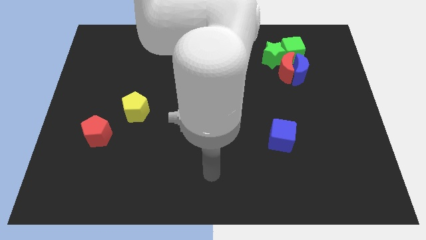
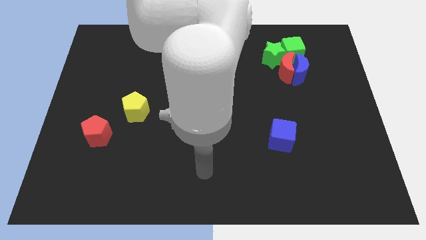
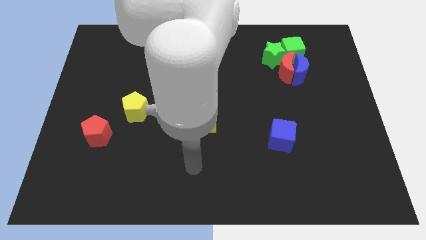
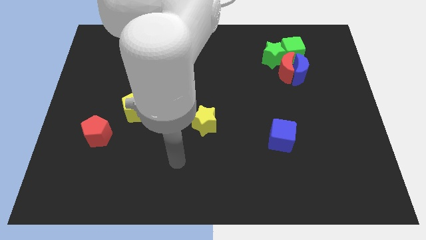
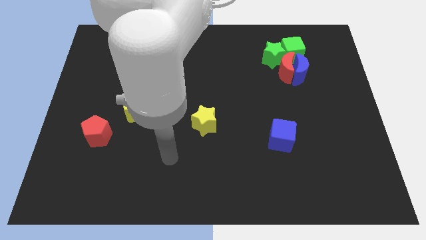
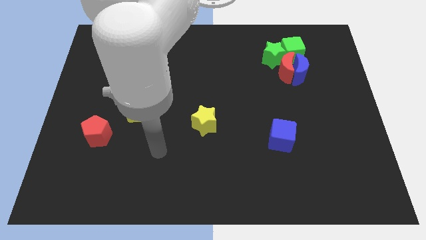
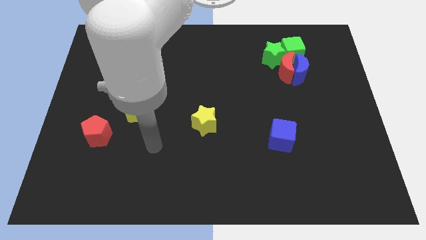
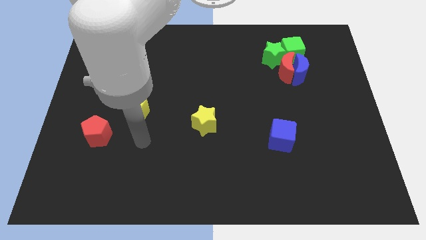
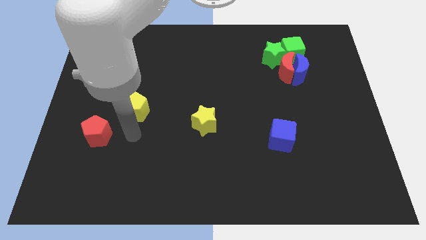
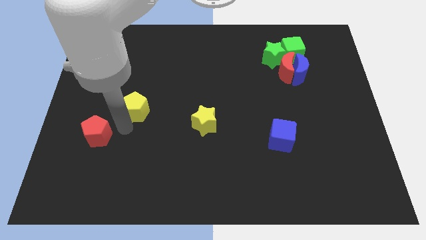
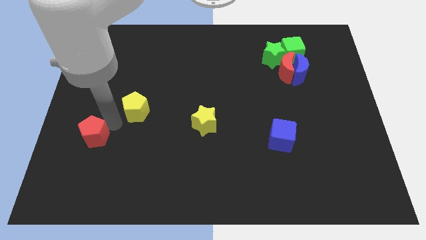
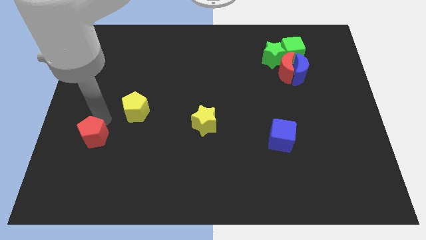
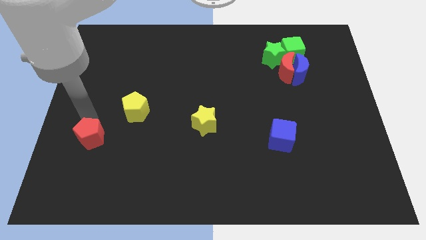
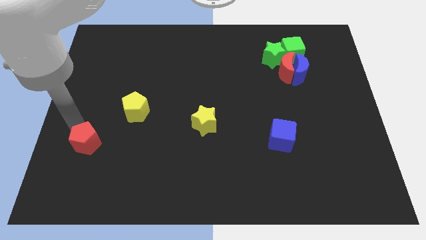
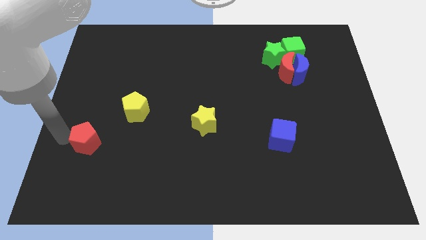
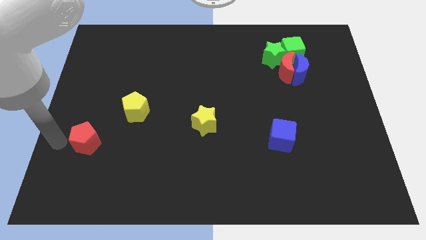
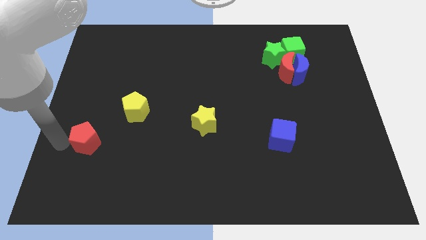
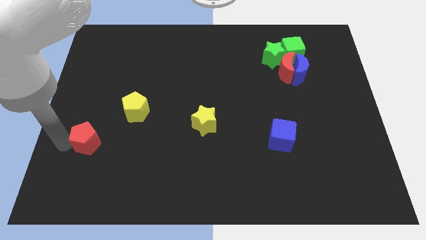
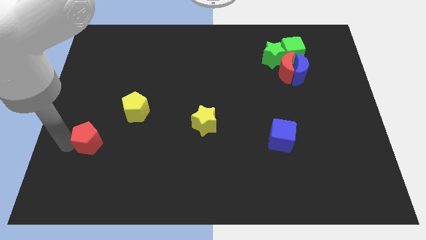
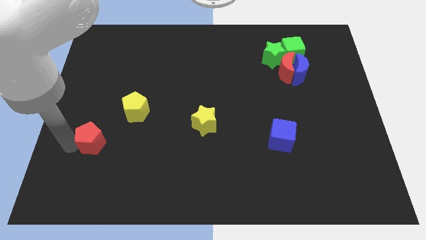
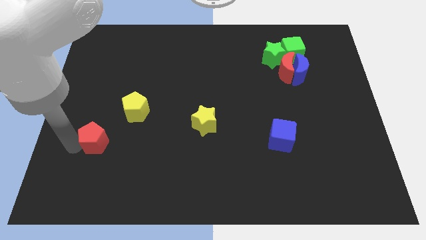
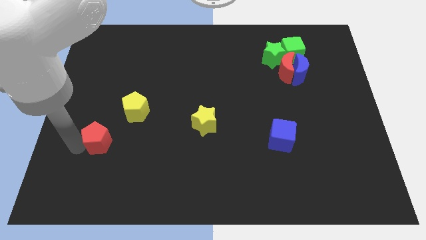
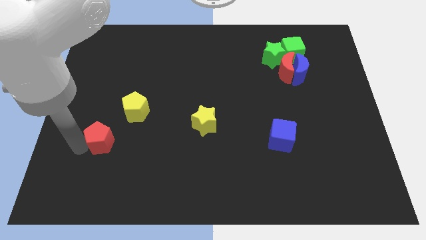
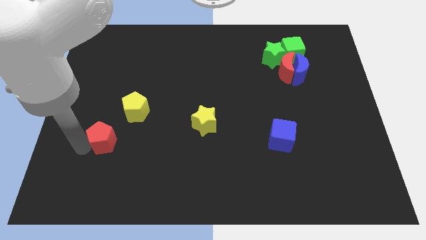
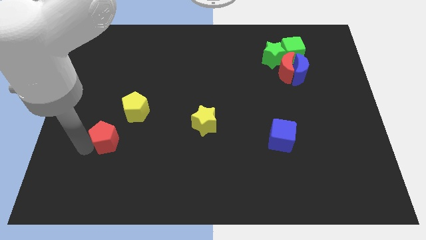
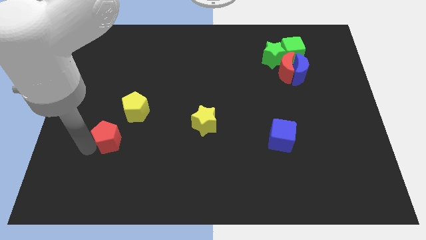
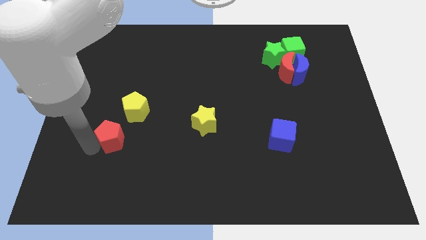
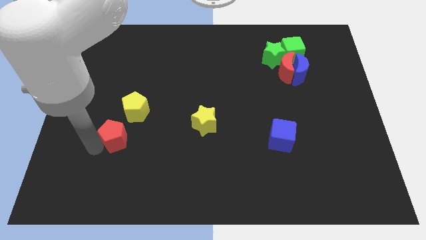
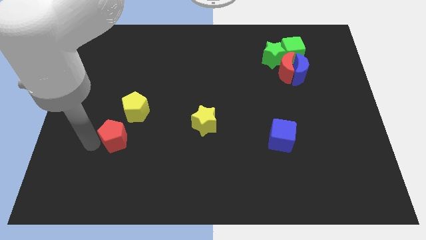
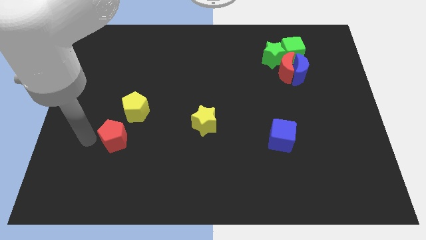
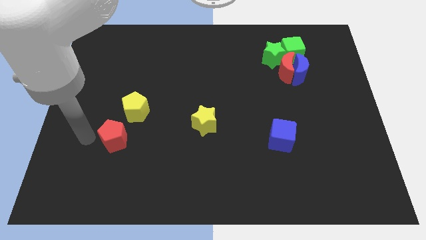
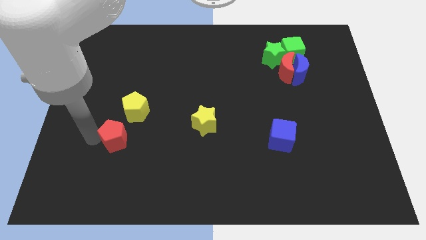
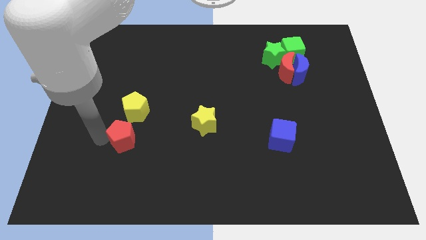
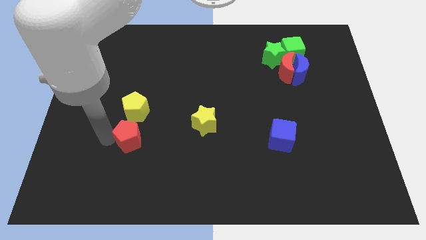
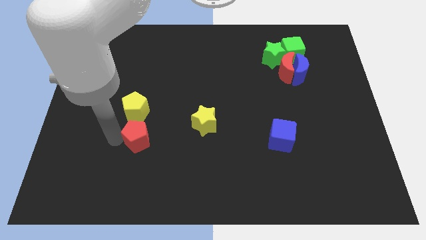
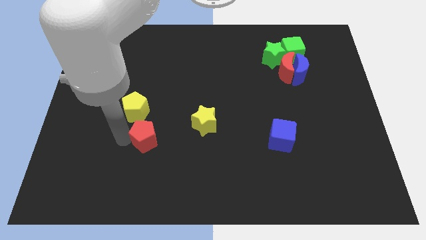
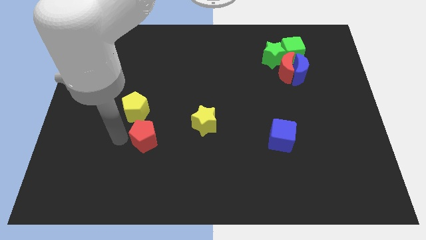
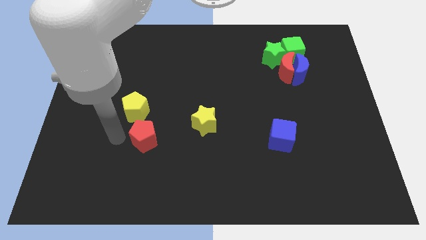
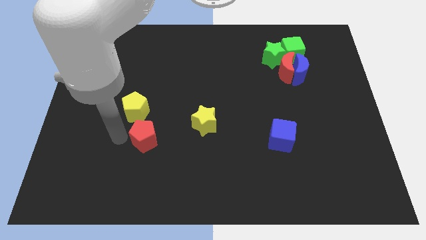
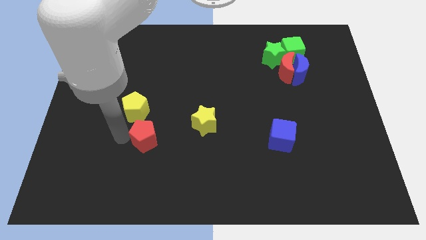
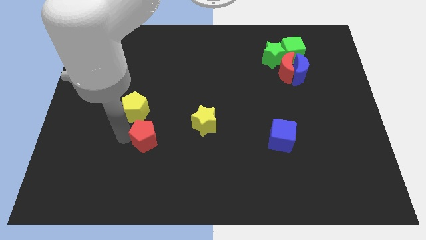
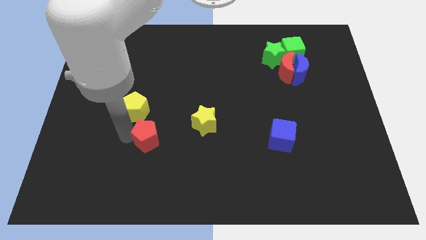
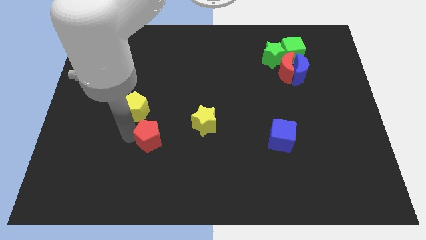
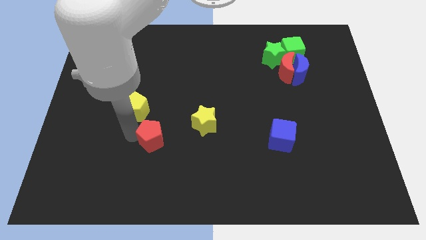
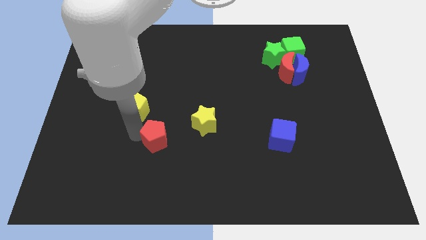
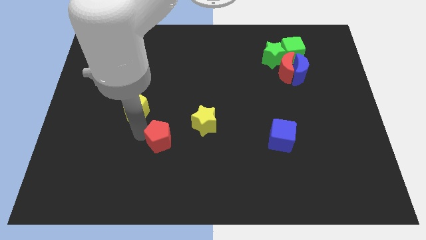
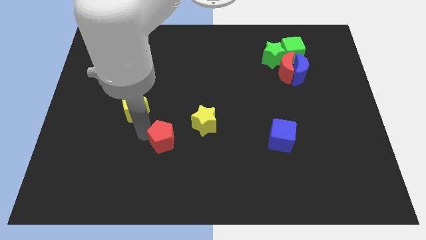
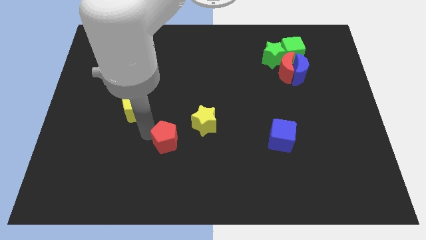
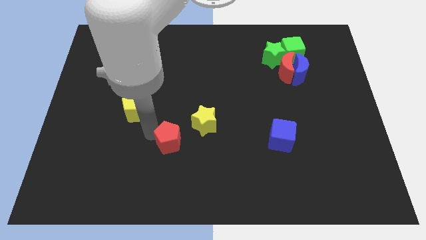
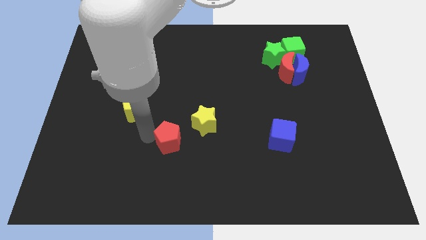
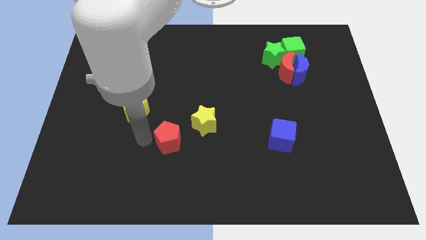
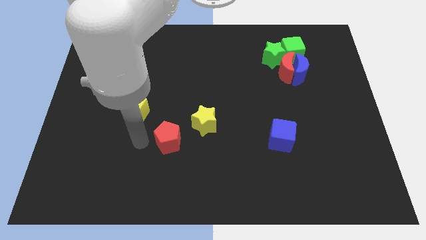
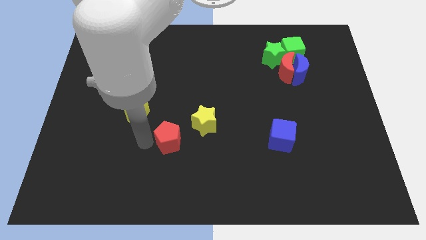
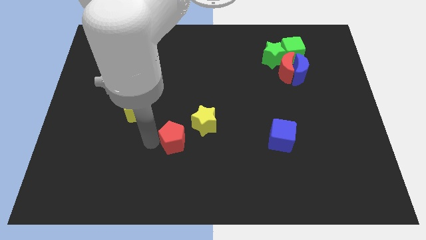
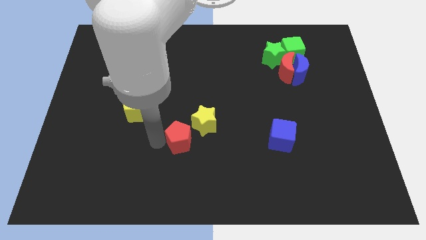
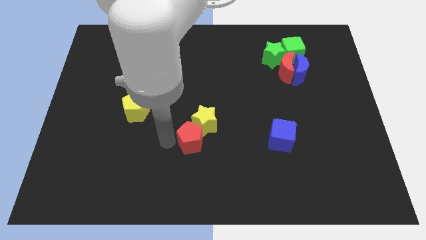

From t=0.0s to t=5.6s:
slide the red pentagon to the right

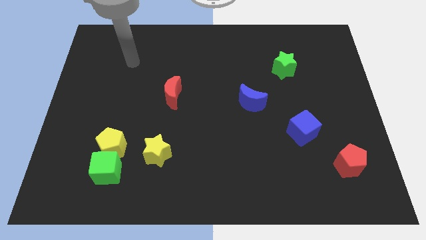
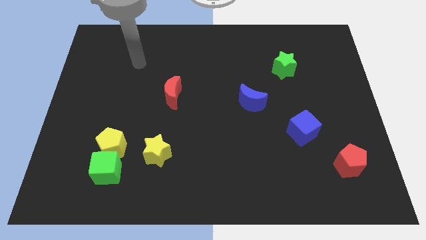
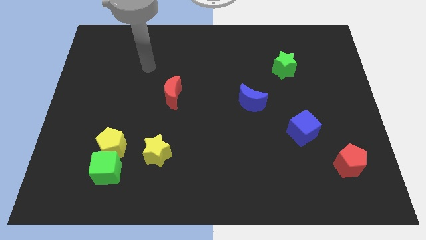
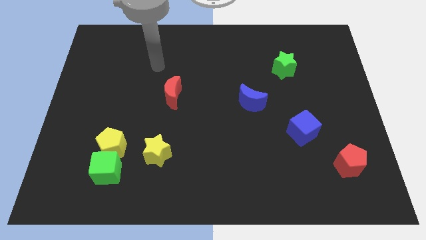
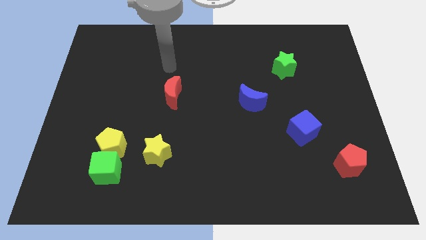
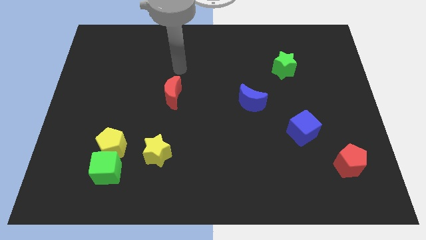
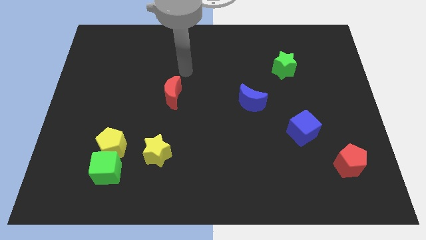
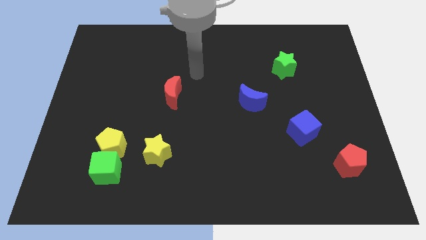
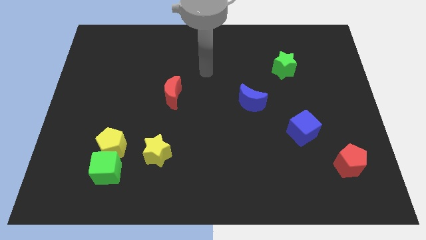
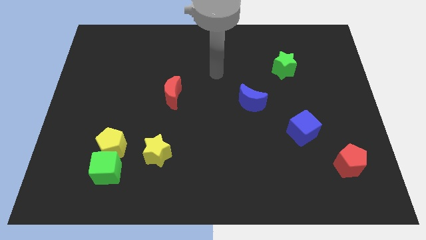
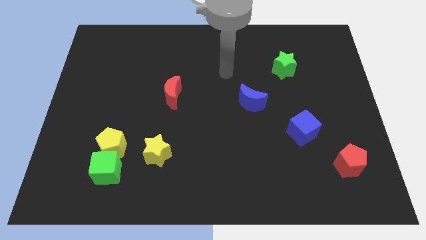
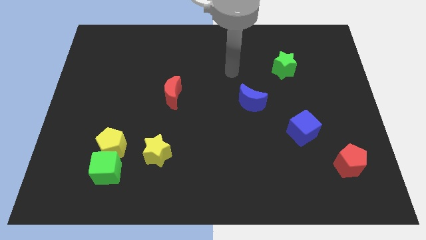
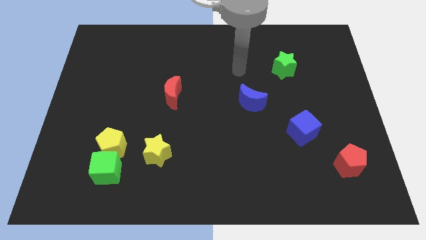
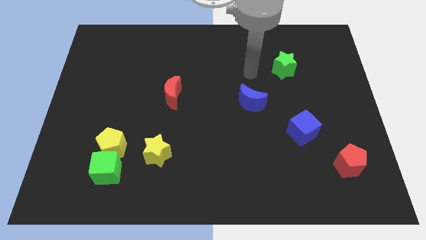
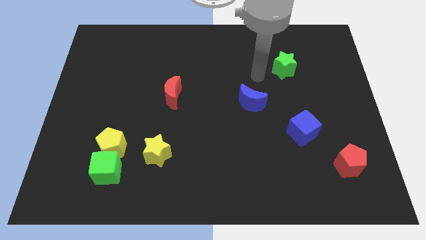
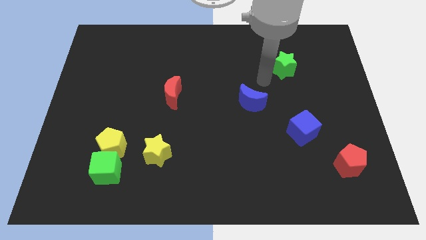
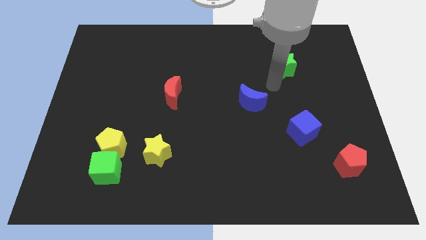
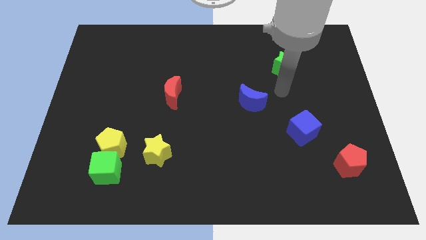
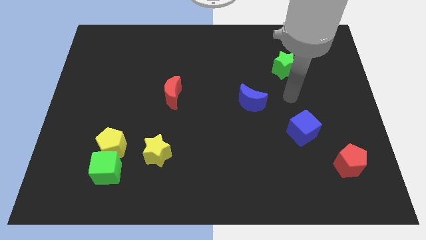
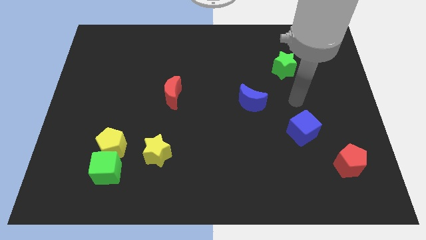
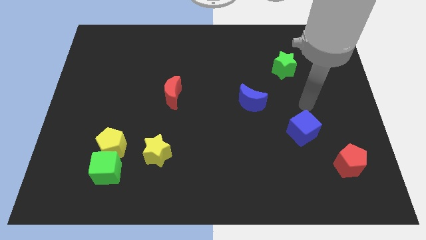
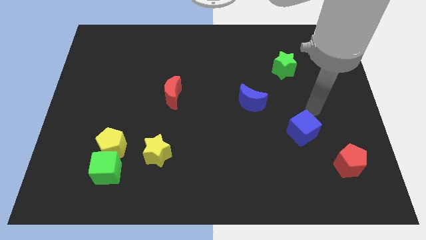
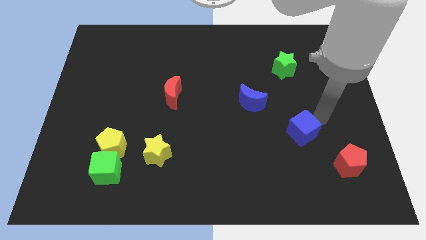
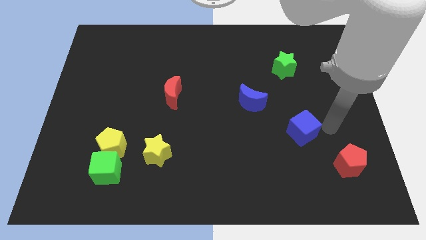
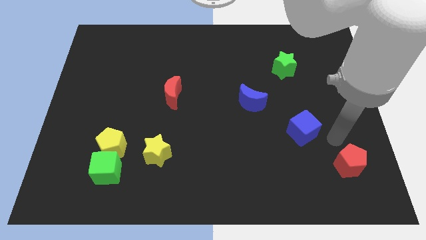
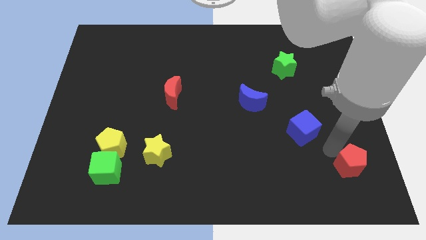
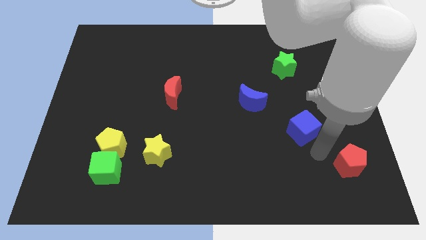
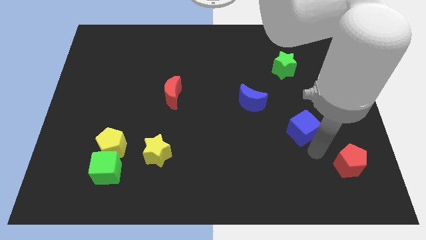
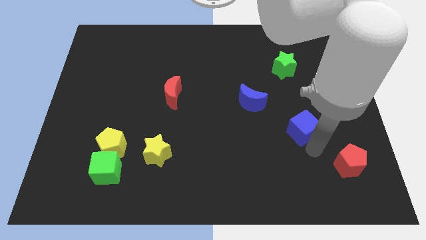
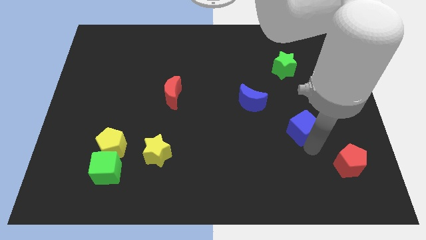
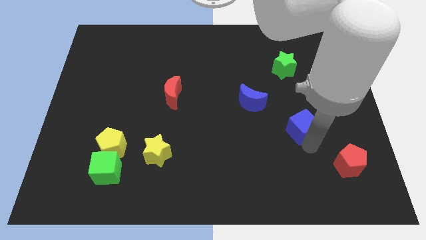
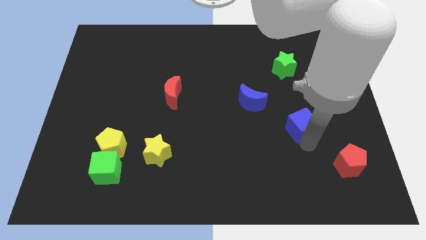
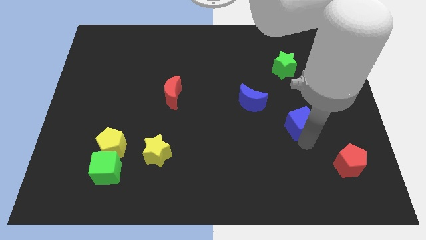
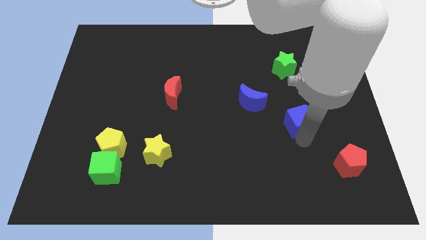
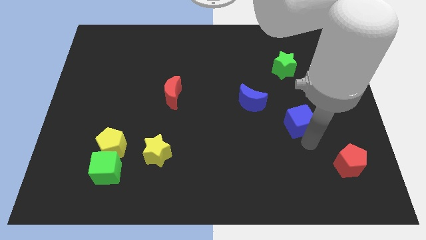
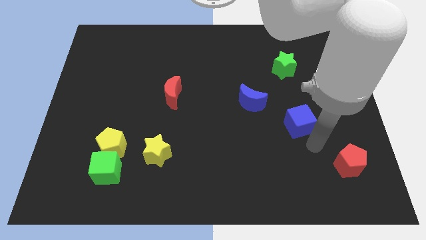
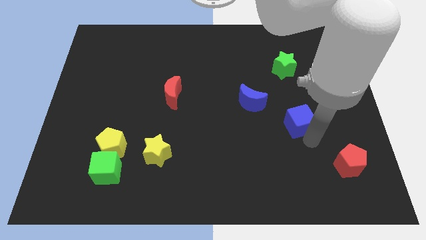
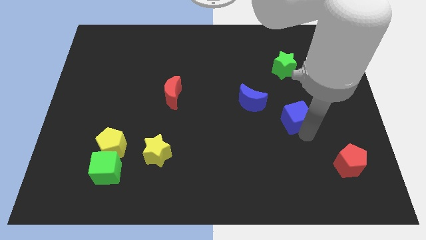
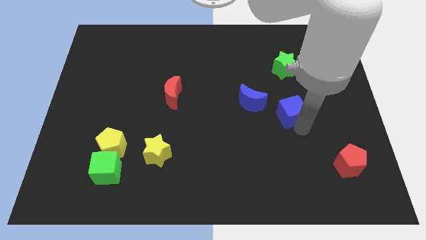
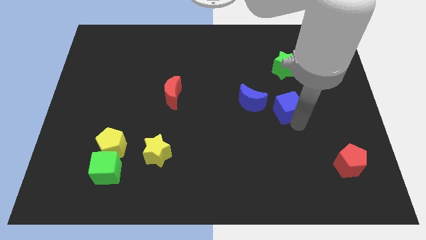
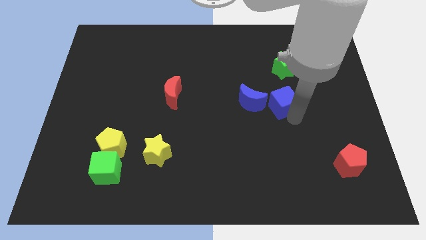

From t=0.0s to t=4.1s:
slightly slide the blue cube diagonally upwards and left
